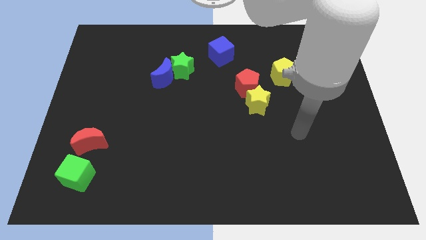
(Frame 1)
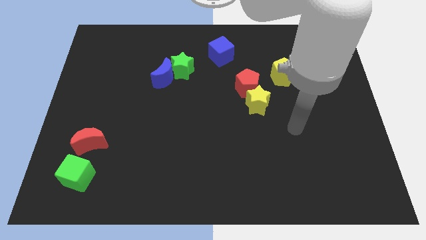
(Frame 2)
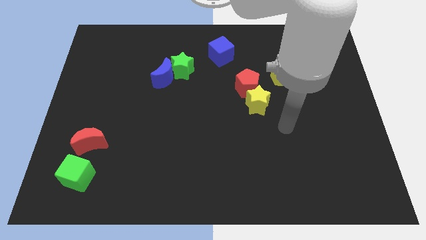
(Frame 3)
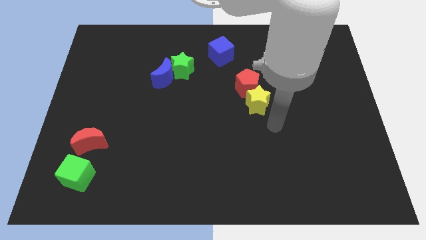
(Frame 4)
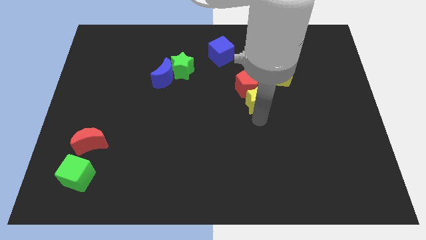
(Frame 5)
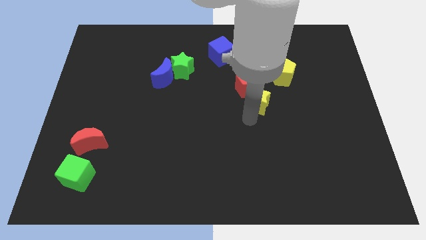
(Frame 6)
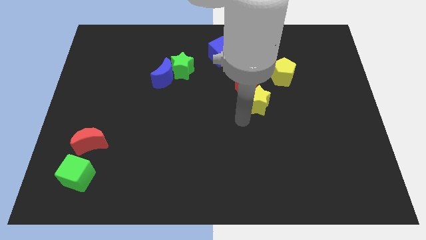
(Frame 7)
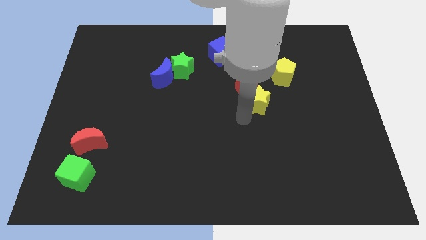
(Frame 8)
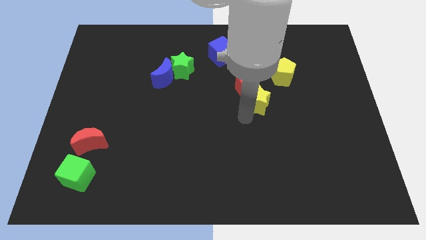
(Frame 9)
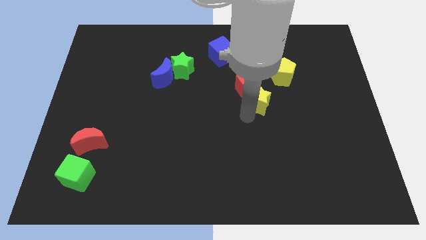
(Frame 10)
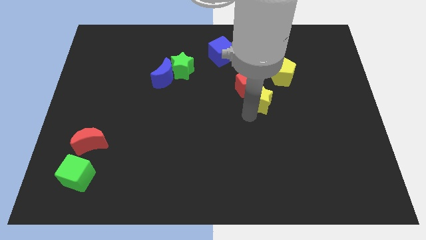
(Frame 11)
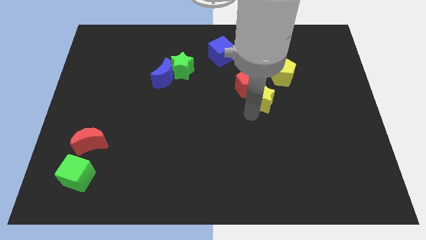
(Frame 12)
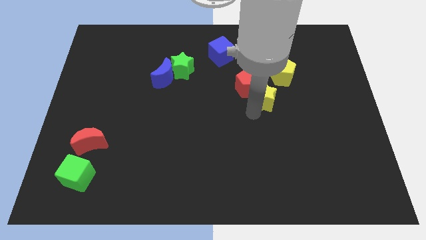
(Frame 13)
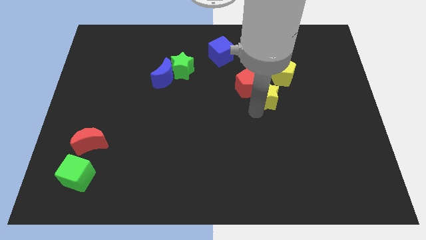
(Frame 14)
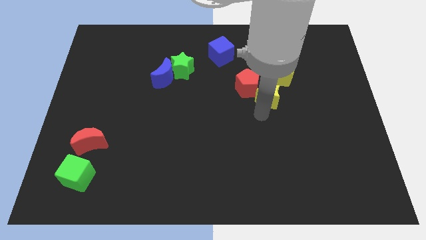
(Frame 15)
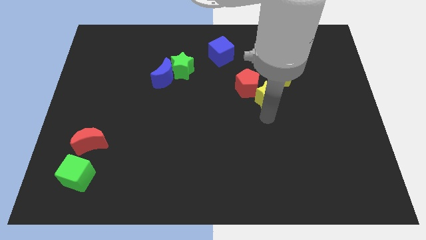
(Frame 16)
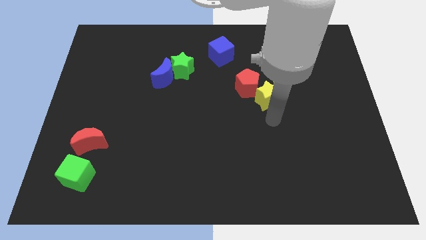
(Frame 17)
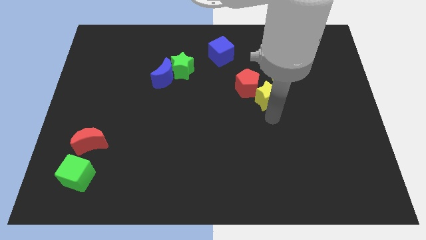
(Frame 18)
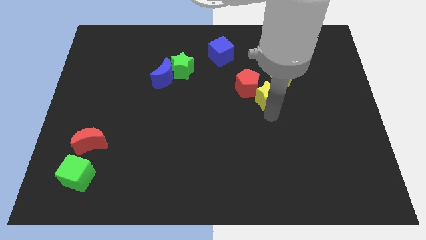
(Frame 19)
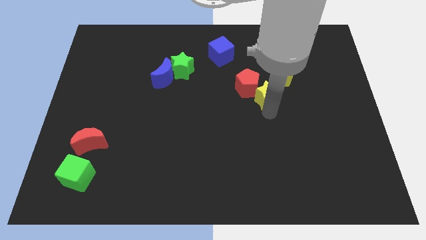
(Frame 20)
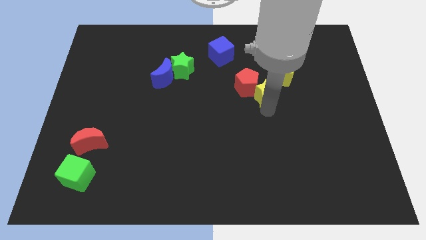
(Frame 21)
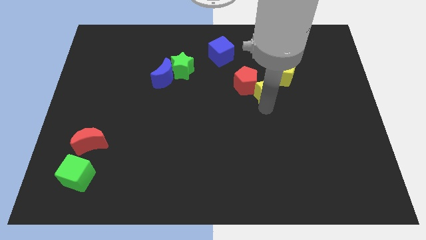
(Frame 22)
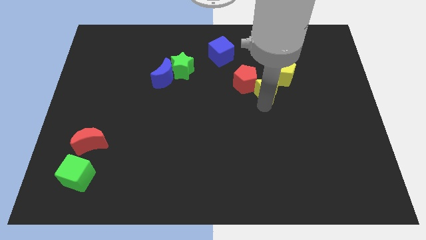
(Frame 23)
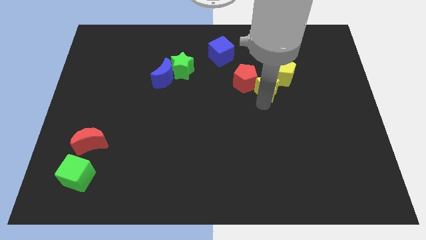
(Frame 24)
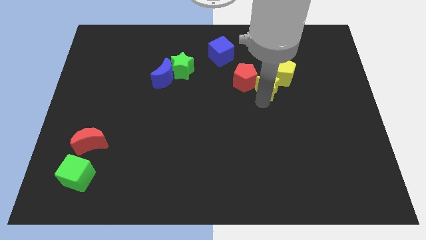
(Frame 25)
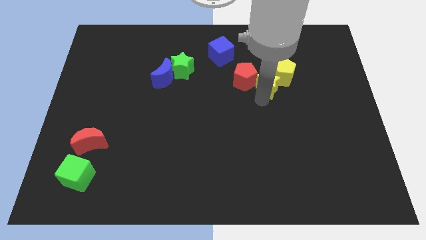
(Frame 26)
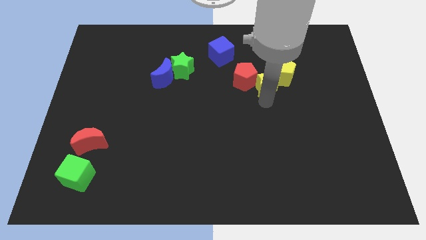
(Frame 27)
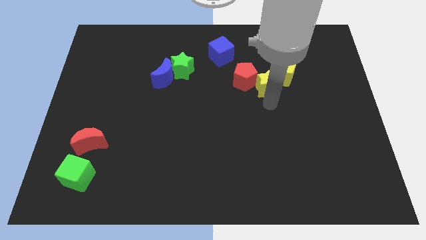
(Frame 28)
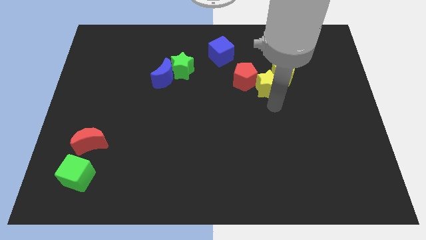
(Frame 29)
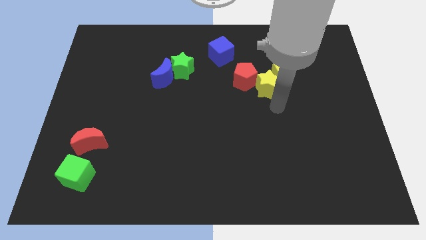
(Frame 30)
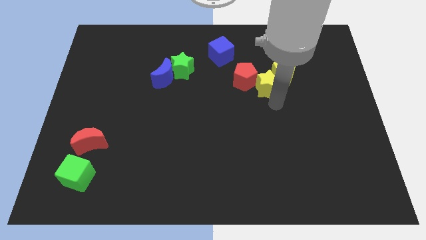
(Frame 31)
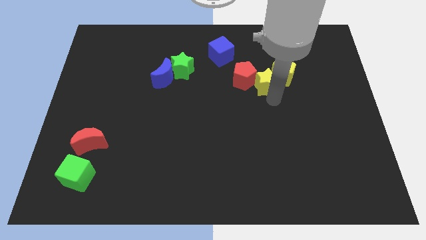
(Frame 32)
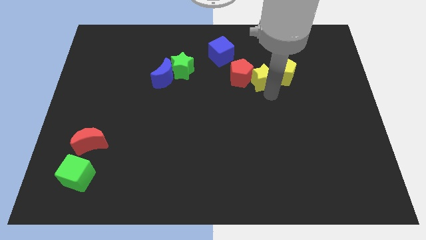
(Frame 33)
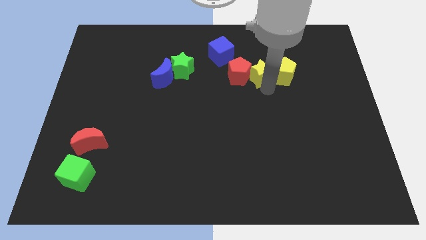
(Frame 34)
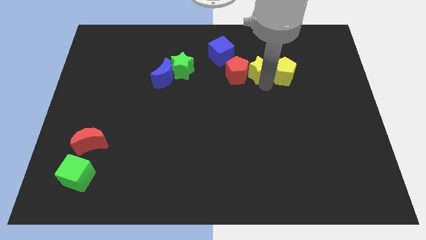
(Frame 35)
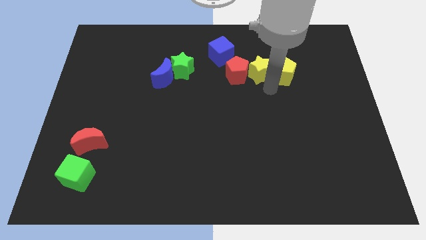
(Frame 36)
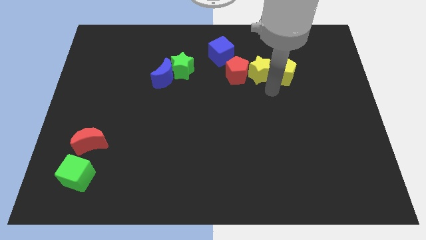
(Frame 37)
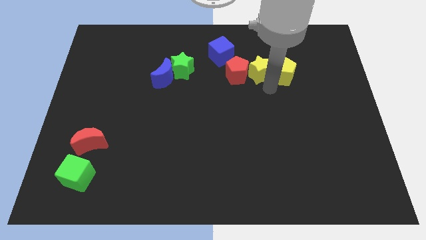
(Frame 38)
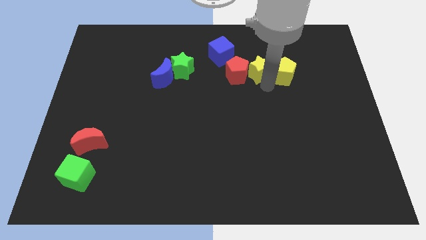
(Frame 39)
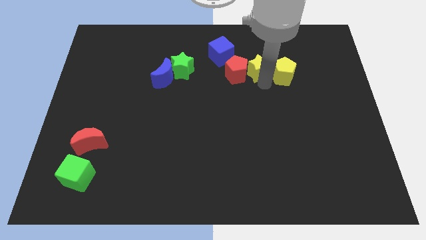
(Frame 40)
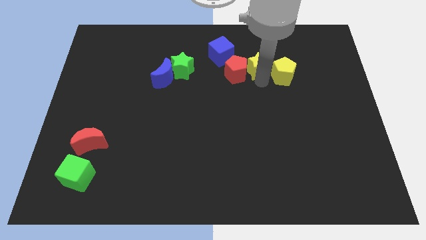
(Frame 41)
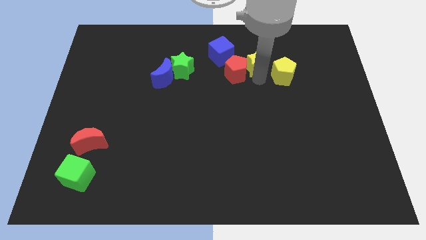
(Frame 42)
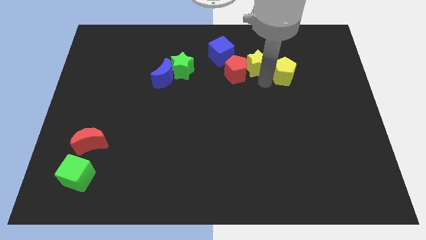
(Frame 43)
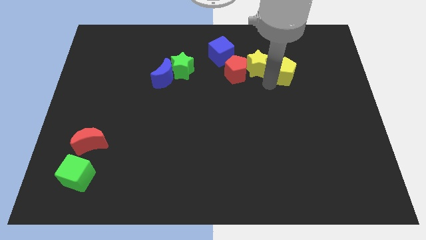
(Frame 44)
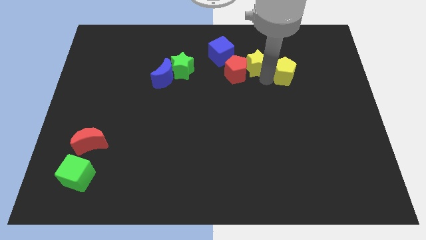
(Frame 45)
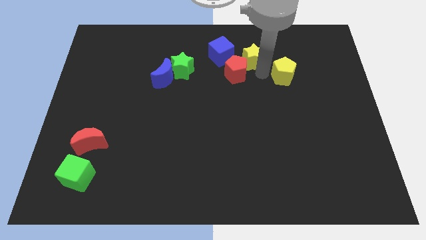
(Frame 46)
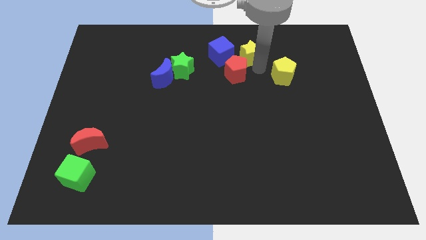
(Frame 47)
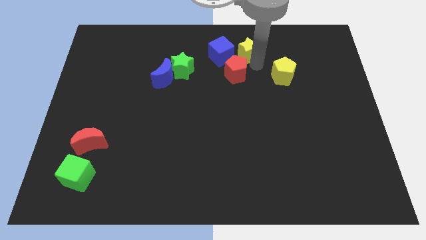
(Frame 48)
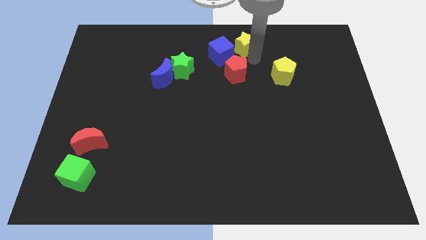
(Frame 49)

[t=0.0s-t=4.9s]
slide the yellow star to the top

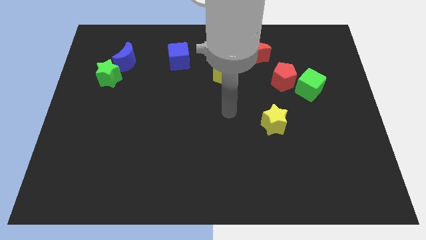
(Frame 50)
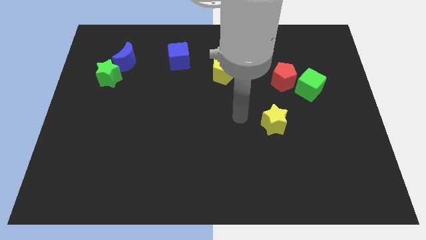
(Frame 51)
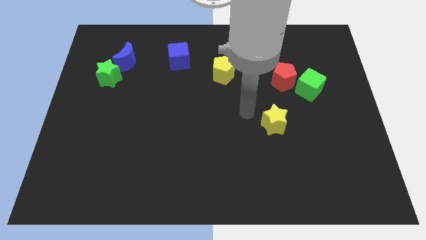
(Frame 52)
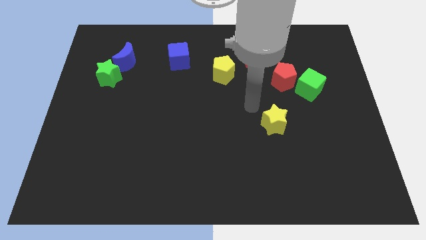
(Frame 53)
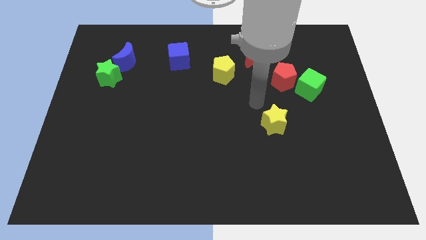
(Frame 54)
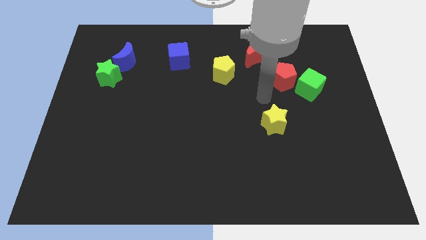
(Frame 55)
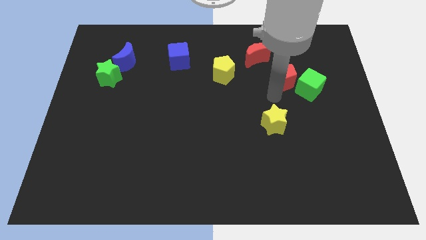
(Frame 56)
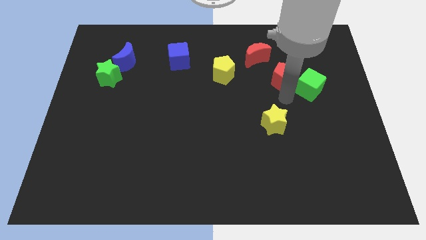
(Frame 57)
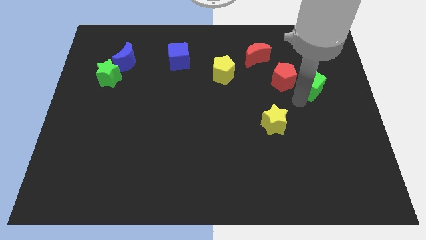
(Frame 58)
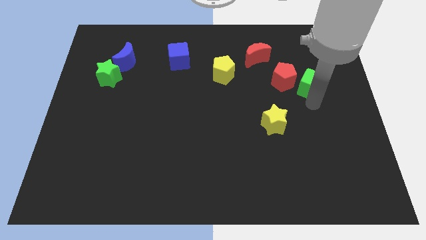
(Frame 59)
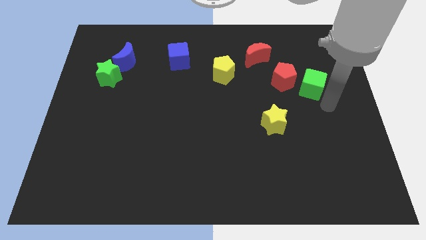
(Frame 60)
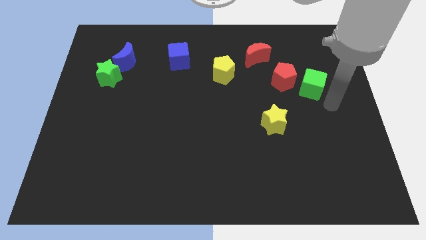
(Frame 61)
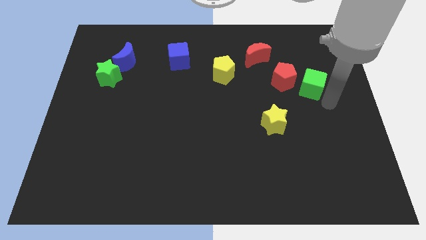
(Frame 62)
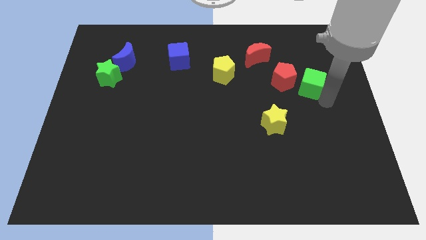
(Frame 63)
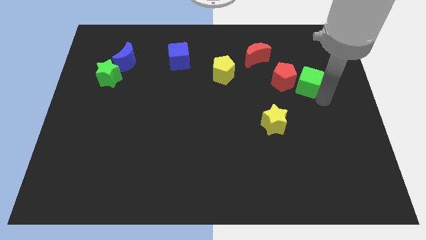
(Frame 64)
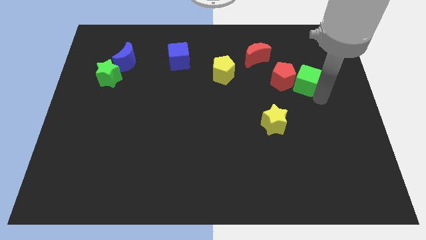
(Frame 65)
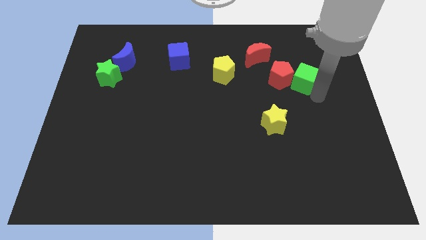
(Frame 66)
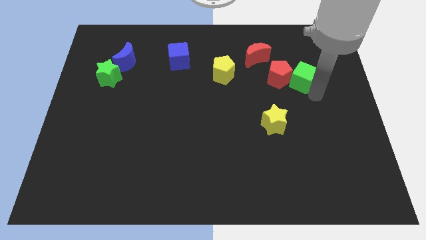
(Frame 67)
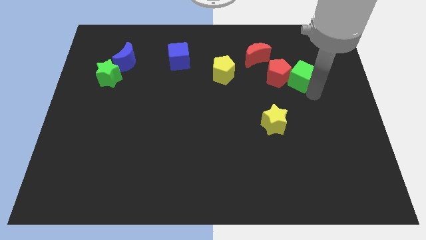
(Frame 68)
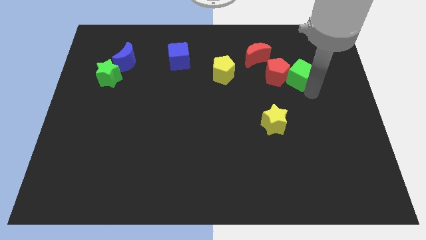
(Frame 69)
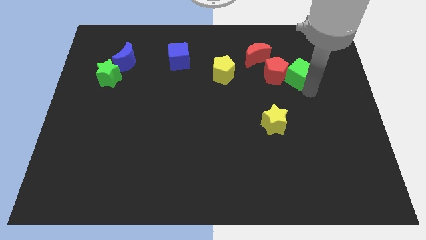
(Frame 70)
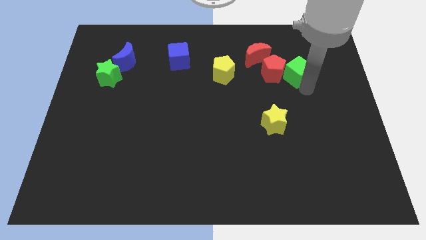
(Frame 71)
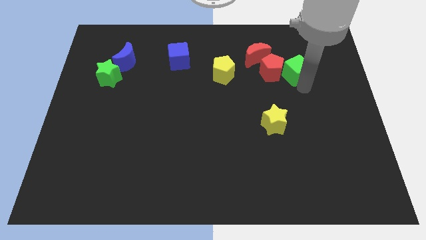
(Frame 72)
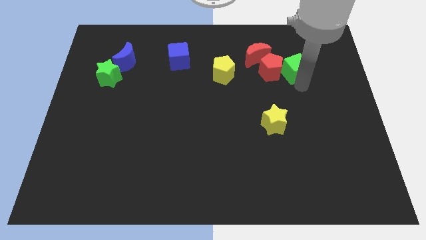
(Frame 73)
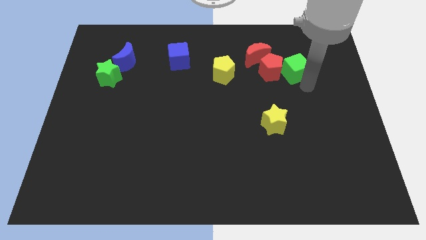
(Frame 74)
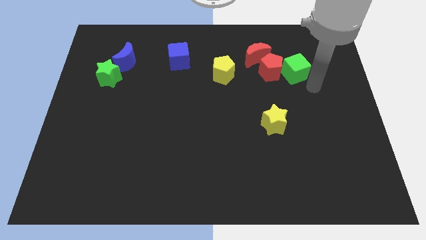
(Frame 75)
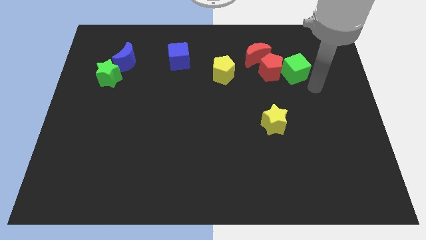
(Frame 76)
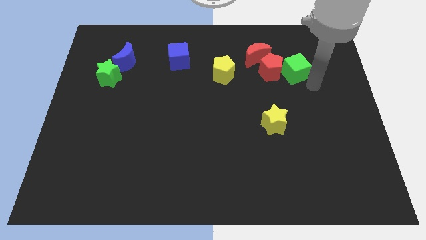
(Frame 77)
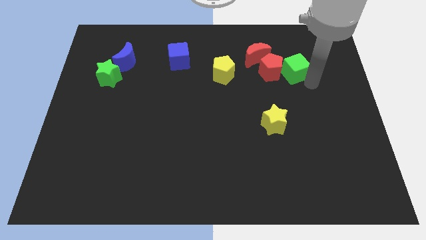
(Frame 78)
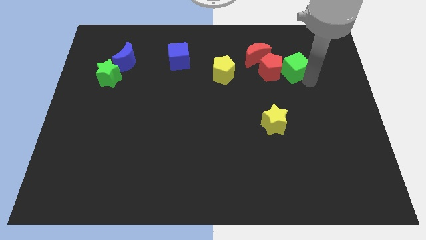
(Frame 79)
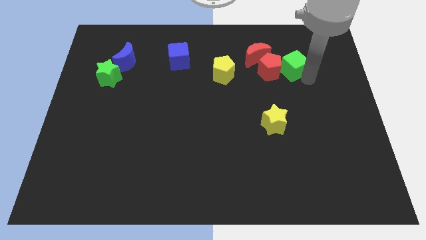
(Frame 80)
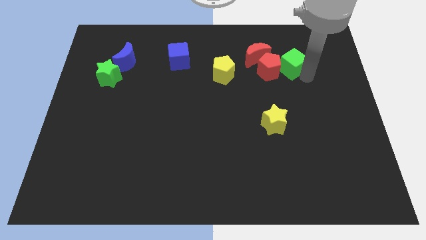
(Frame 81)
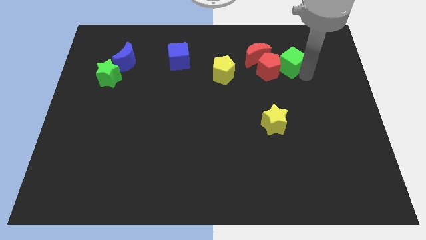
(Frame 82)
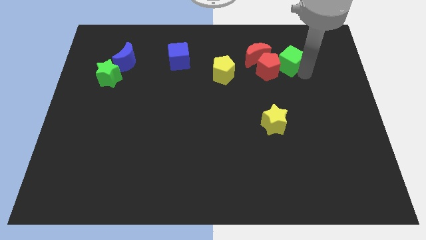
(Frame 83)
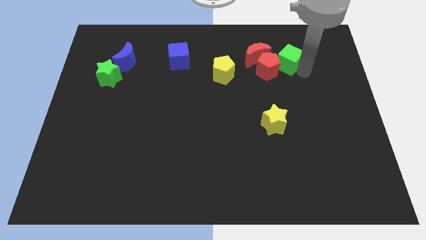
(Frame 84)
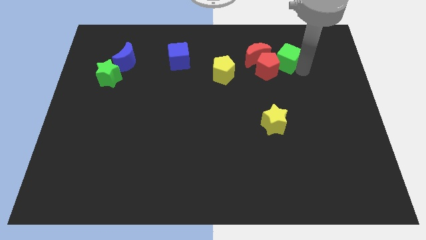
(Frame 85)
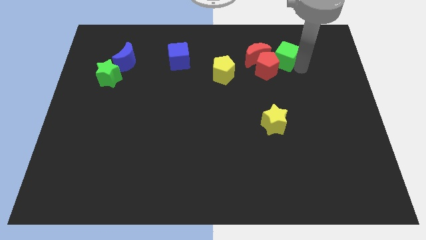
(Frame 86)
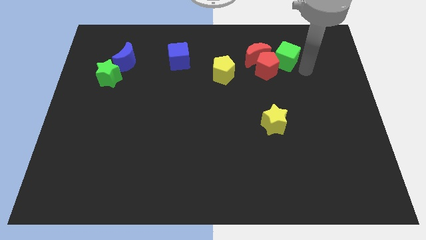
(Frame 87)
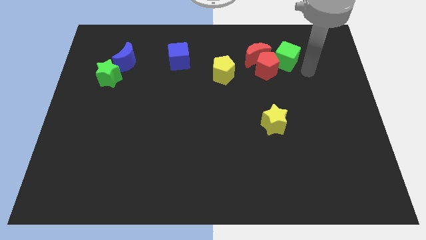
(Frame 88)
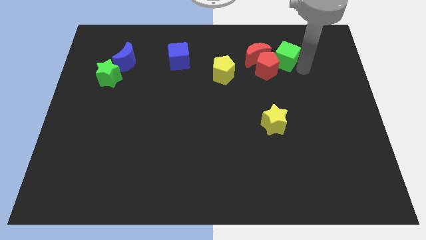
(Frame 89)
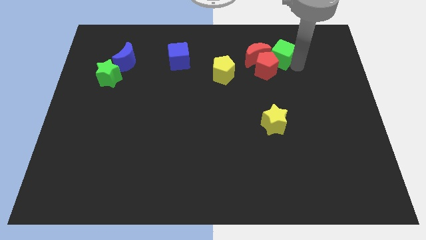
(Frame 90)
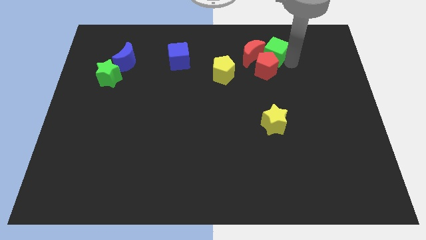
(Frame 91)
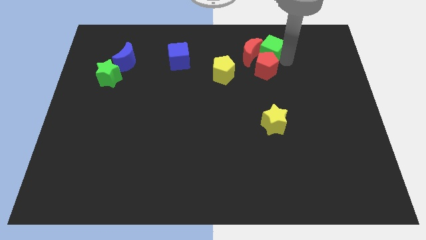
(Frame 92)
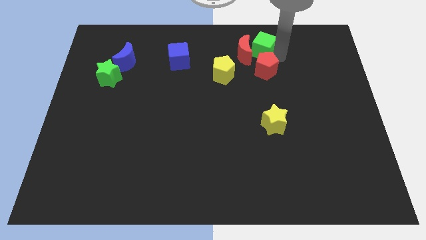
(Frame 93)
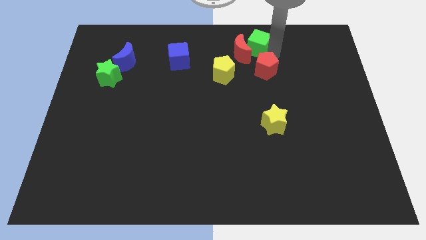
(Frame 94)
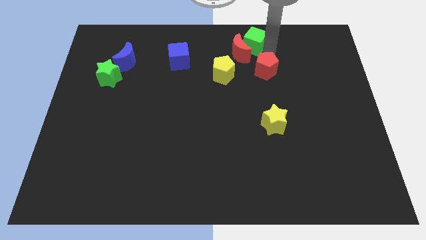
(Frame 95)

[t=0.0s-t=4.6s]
push the green cube to the top side
